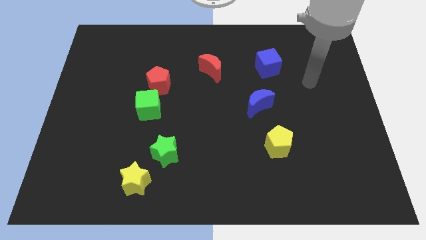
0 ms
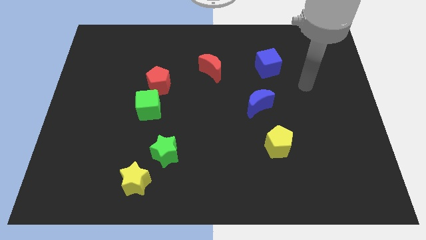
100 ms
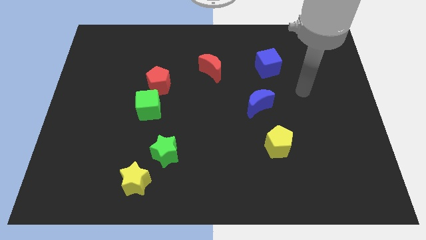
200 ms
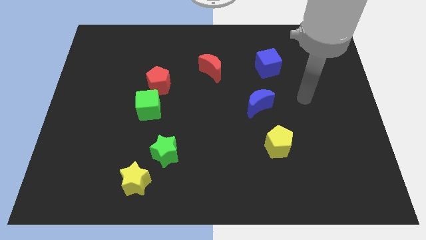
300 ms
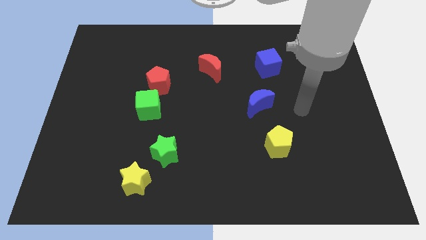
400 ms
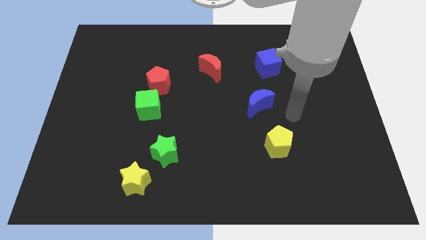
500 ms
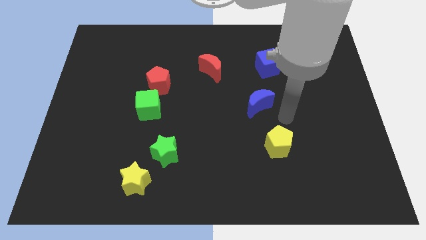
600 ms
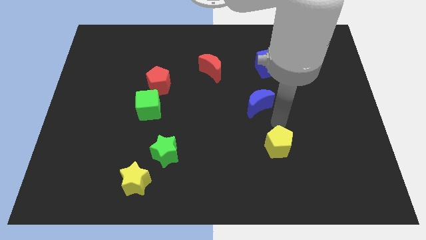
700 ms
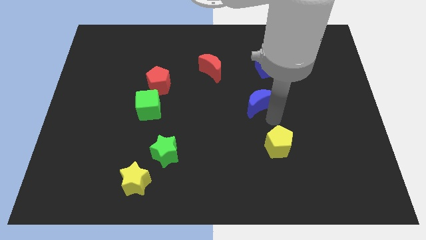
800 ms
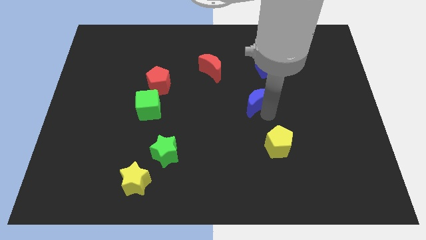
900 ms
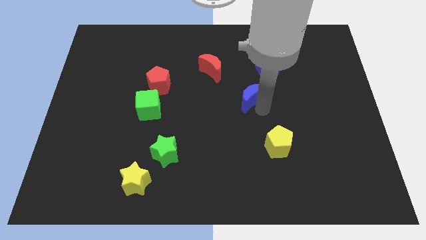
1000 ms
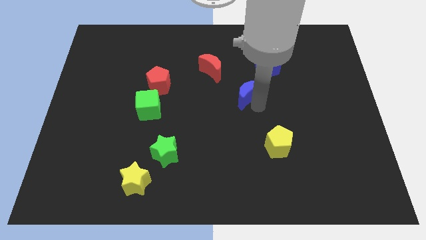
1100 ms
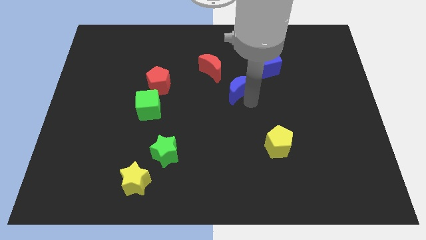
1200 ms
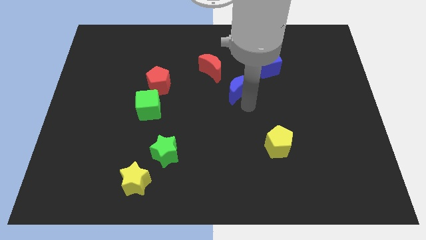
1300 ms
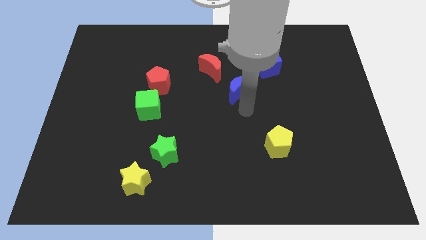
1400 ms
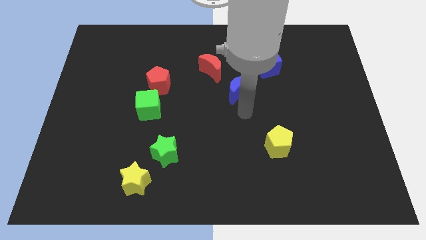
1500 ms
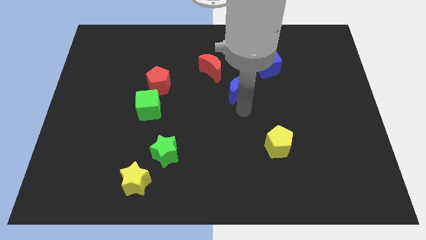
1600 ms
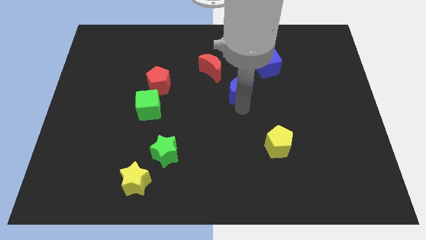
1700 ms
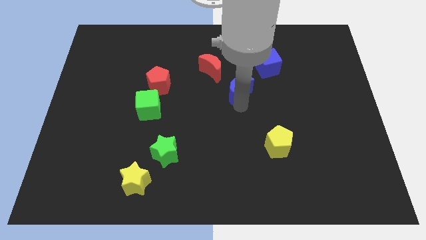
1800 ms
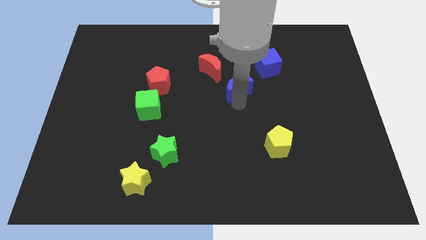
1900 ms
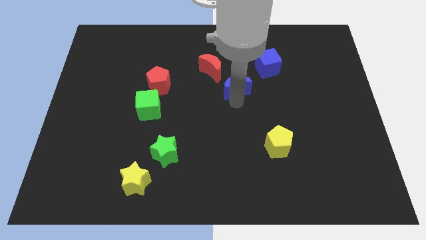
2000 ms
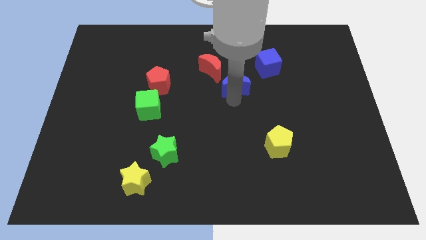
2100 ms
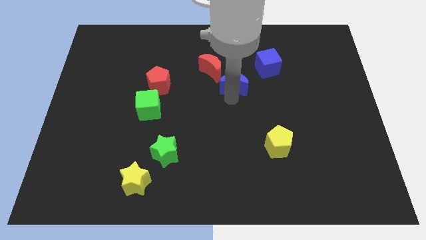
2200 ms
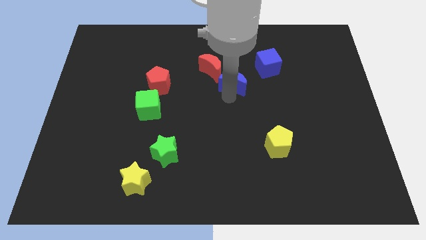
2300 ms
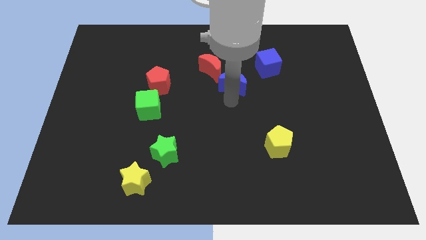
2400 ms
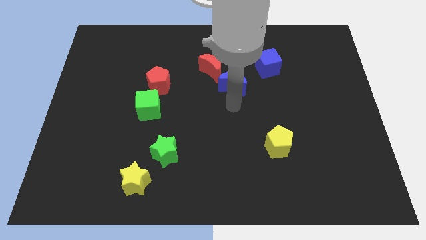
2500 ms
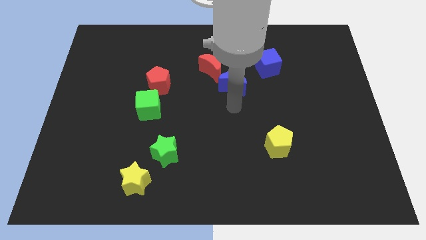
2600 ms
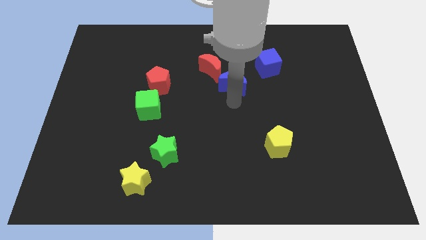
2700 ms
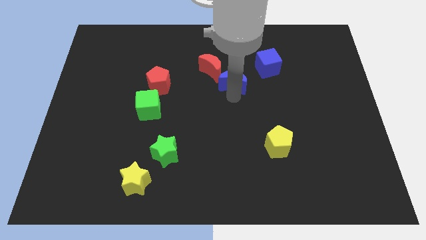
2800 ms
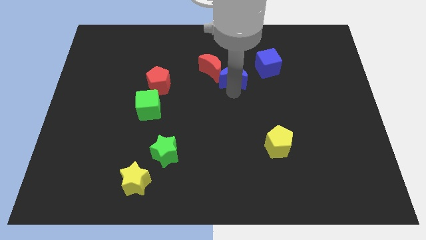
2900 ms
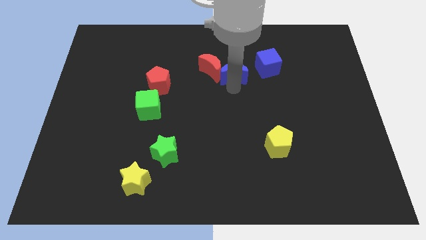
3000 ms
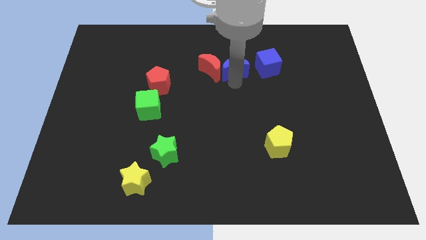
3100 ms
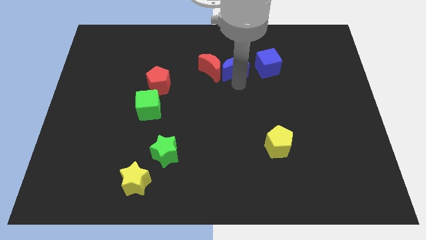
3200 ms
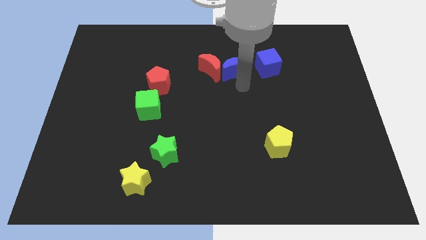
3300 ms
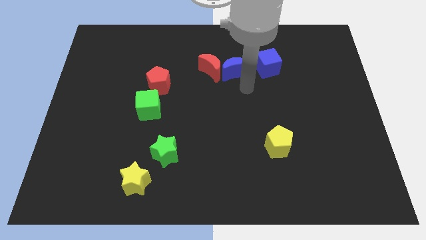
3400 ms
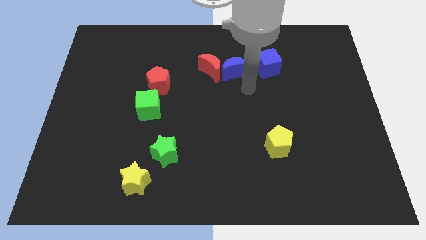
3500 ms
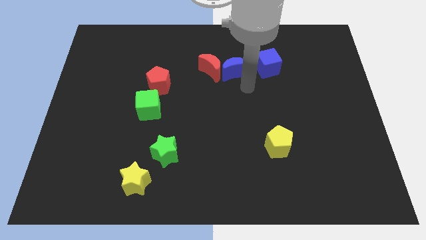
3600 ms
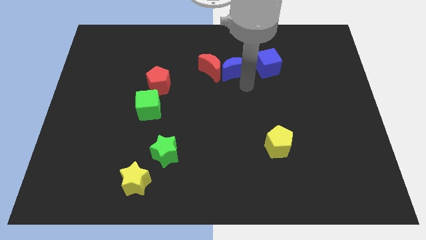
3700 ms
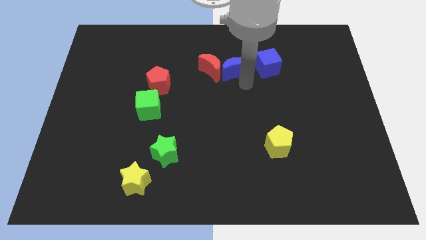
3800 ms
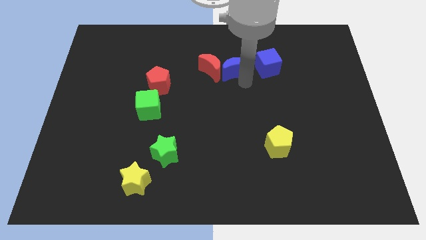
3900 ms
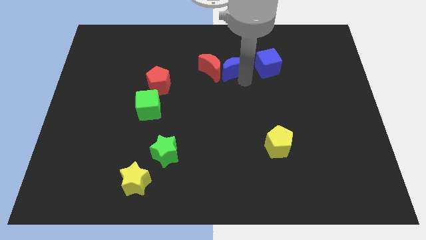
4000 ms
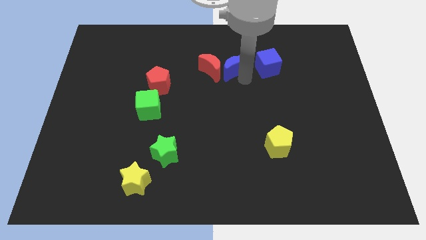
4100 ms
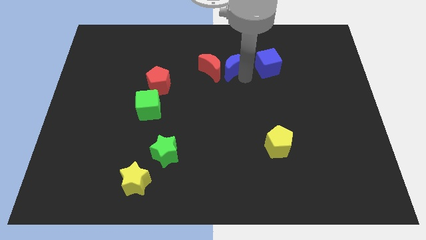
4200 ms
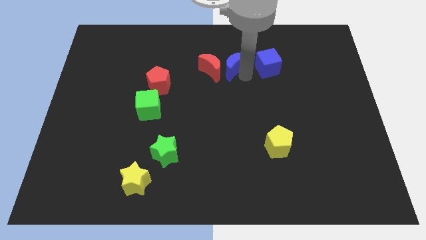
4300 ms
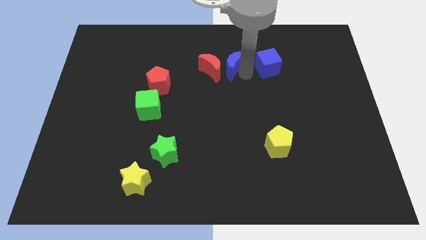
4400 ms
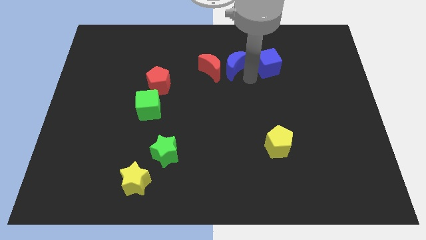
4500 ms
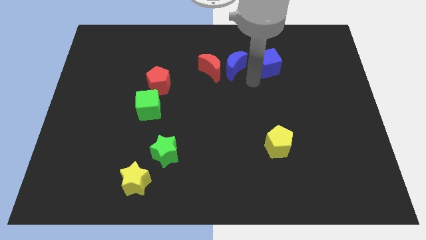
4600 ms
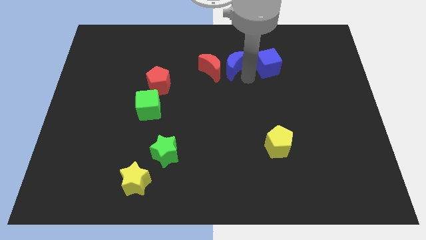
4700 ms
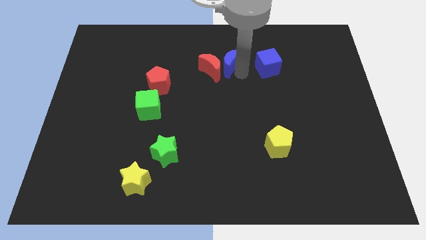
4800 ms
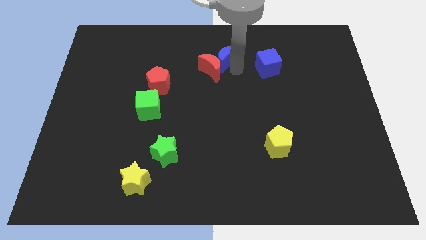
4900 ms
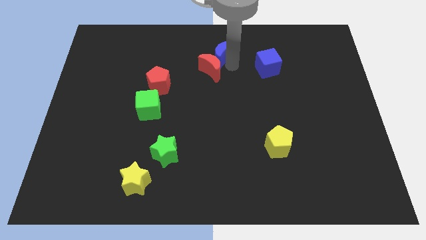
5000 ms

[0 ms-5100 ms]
slide the blue moon to the top side

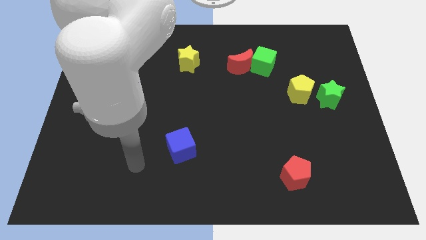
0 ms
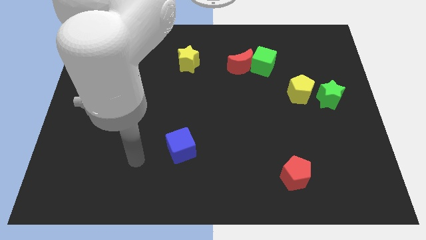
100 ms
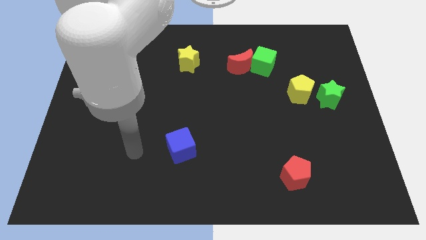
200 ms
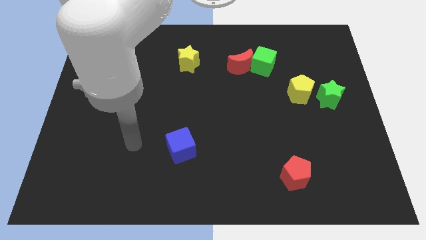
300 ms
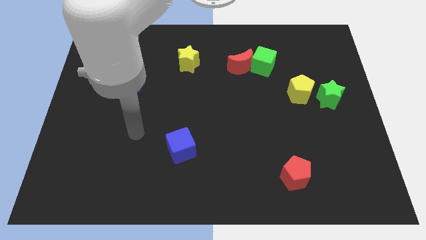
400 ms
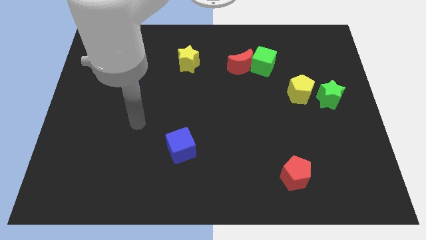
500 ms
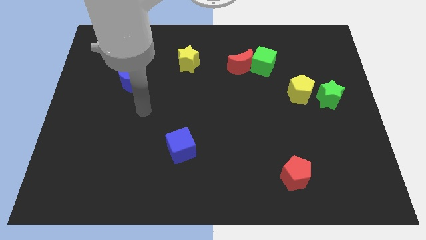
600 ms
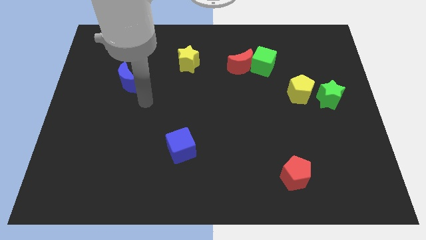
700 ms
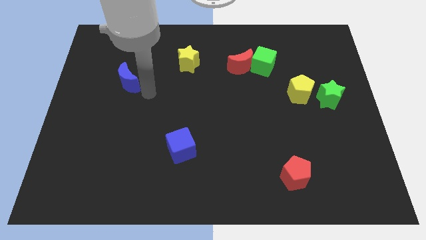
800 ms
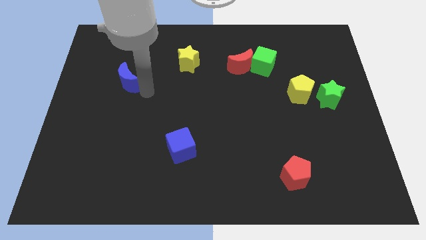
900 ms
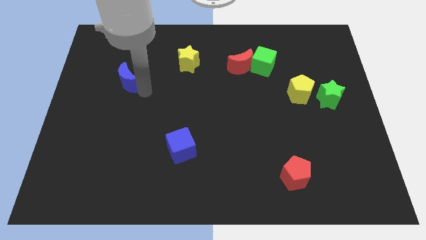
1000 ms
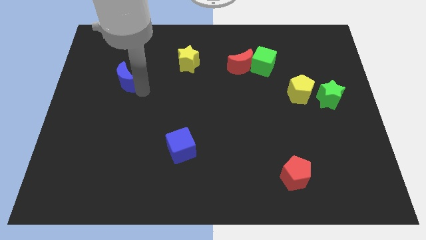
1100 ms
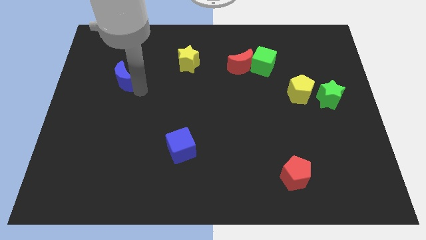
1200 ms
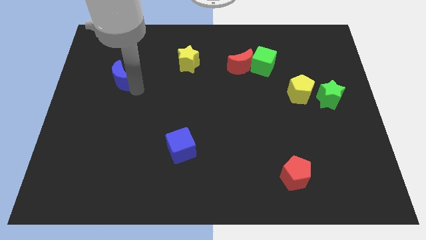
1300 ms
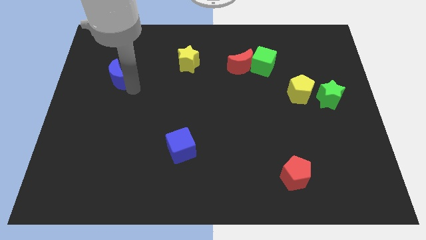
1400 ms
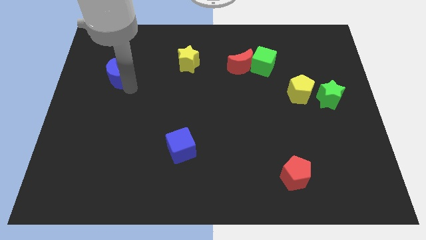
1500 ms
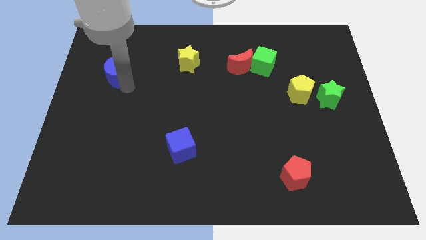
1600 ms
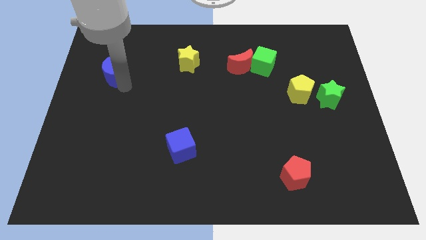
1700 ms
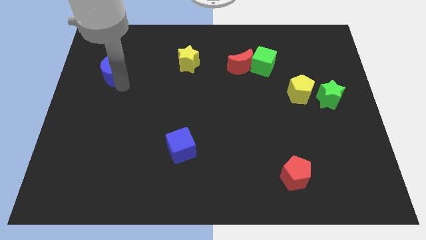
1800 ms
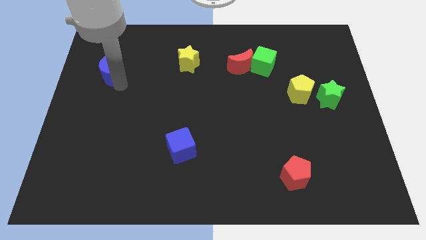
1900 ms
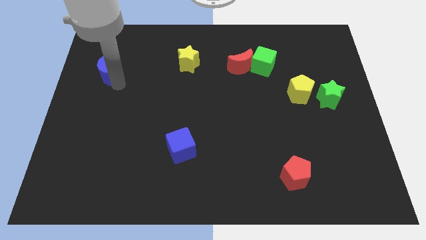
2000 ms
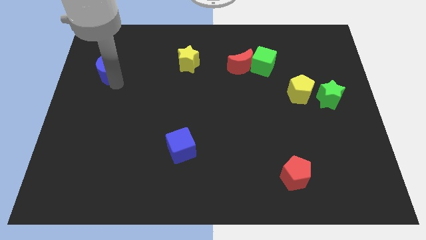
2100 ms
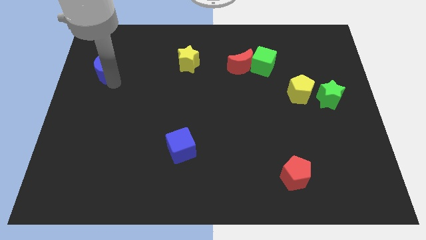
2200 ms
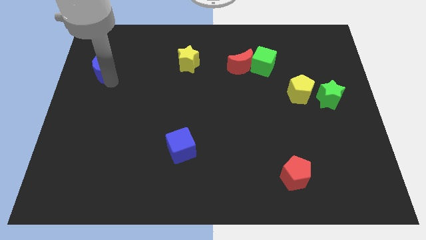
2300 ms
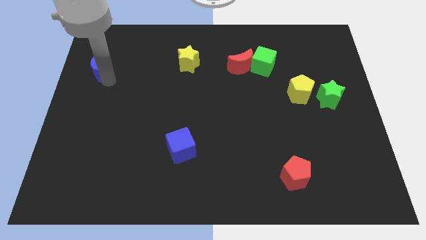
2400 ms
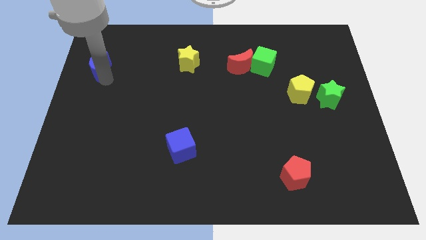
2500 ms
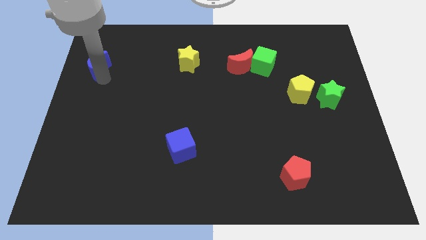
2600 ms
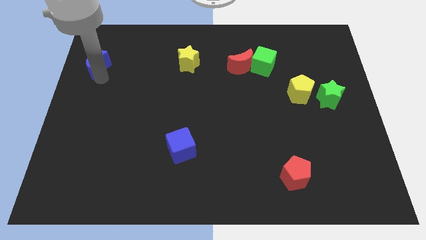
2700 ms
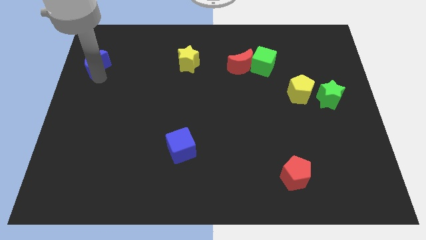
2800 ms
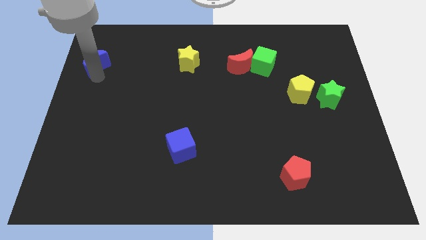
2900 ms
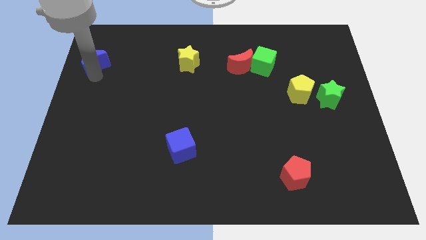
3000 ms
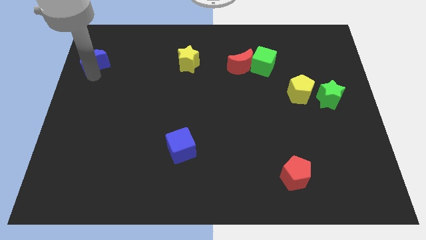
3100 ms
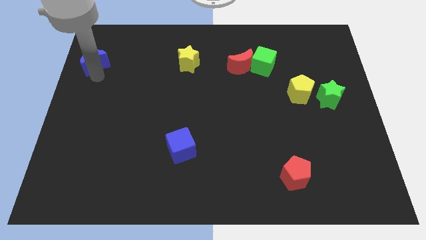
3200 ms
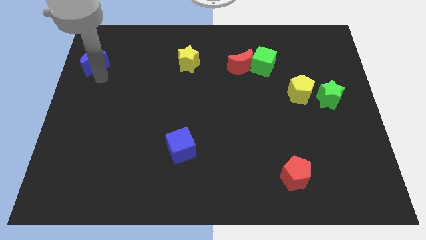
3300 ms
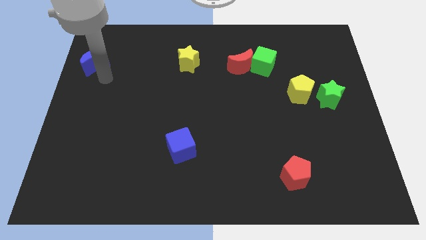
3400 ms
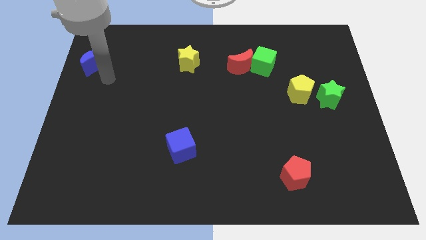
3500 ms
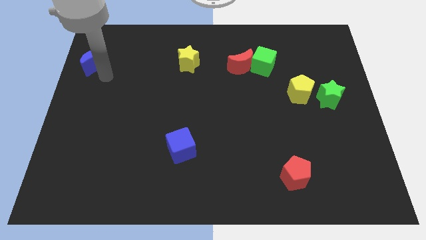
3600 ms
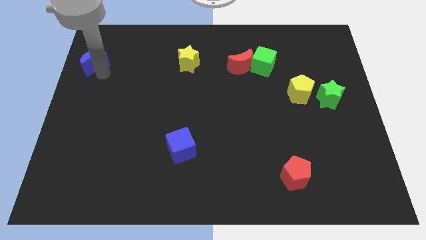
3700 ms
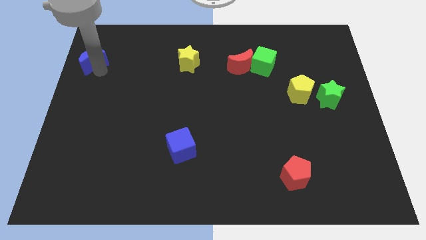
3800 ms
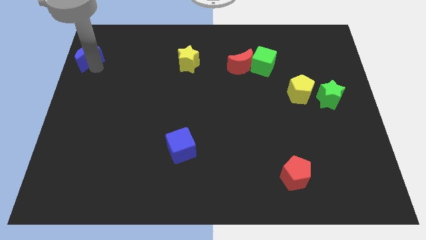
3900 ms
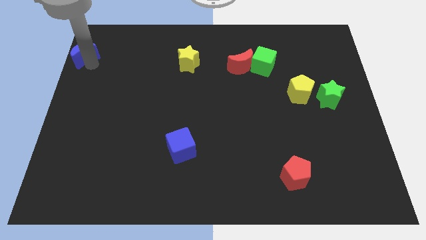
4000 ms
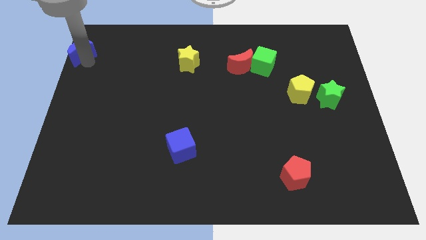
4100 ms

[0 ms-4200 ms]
slide the blue moon to the upper left corner
